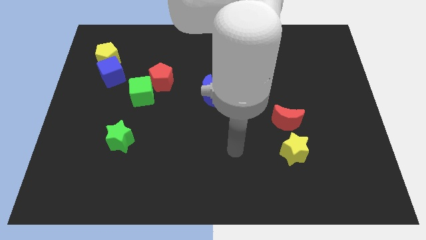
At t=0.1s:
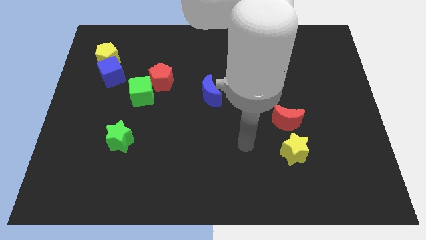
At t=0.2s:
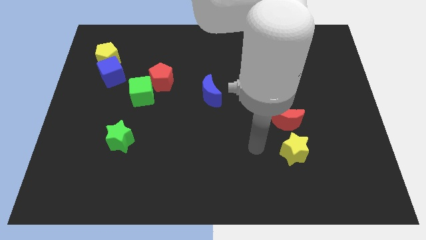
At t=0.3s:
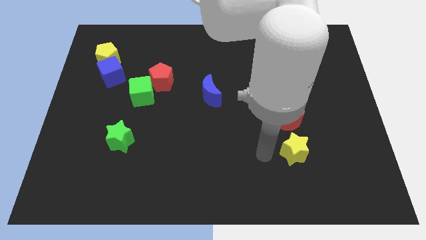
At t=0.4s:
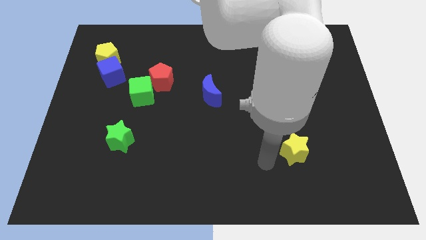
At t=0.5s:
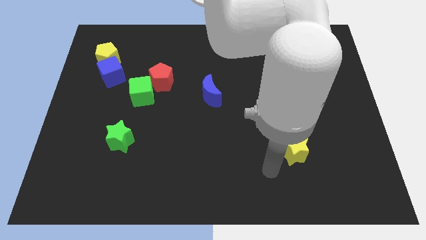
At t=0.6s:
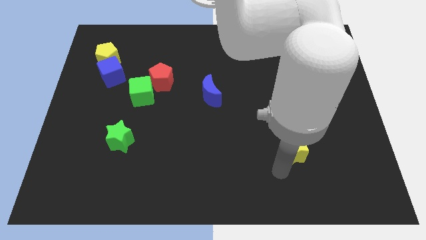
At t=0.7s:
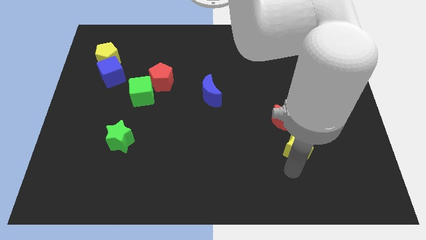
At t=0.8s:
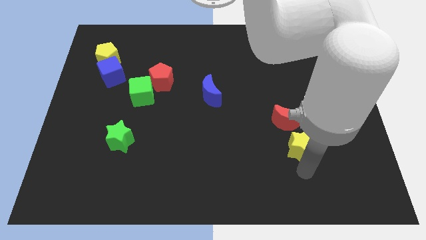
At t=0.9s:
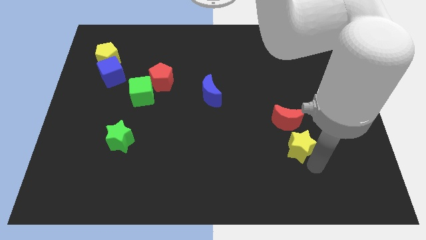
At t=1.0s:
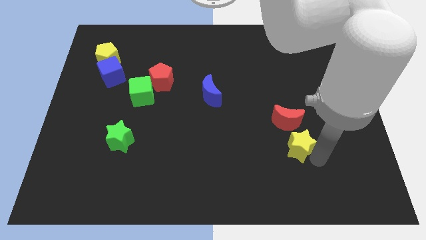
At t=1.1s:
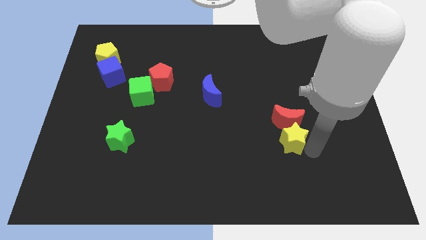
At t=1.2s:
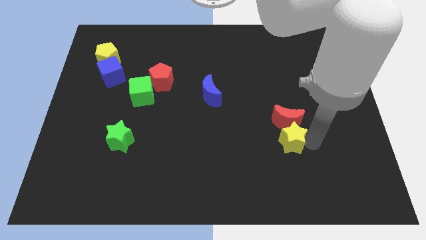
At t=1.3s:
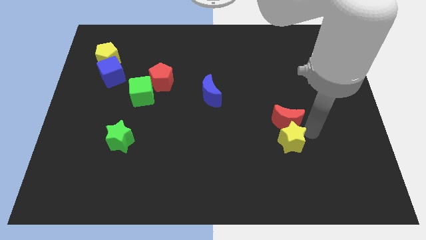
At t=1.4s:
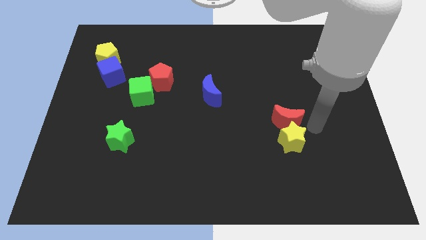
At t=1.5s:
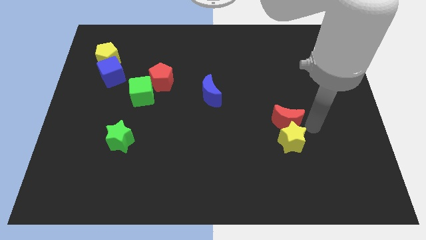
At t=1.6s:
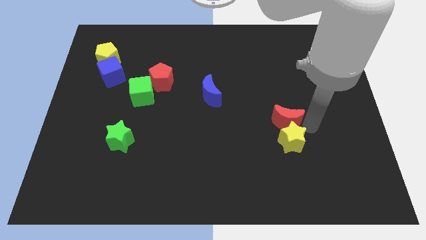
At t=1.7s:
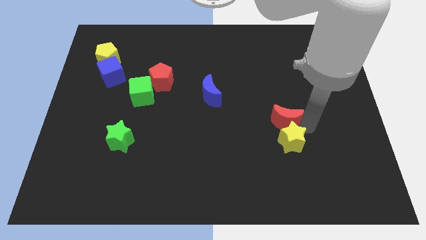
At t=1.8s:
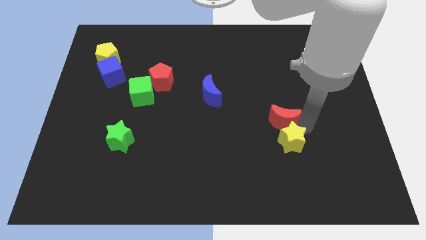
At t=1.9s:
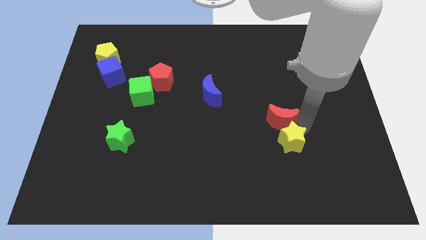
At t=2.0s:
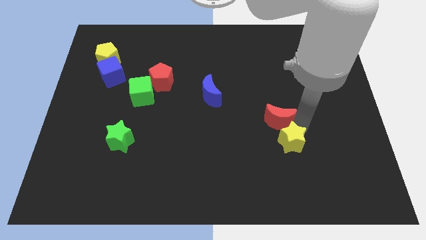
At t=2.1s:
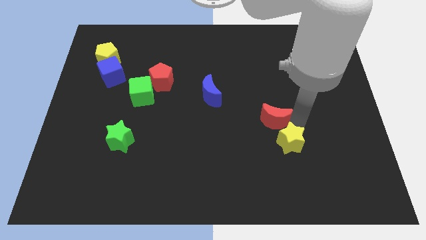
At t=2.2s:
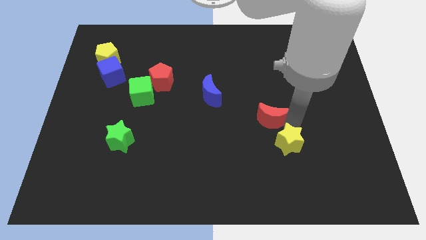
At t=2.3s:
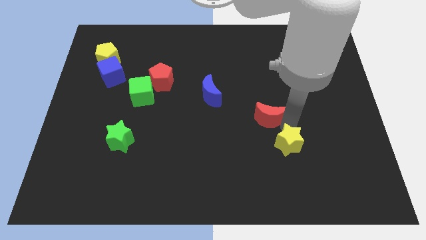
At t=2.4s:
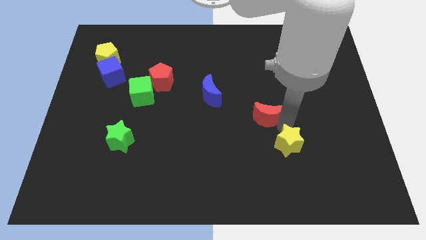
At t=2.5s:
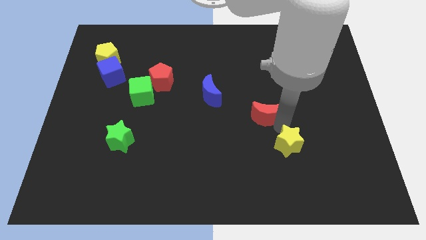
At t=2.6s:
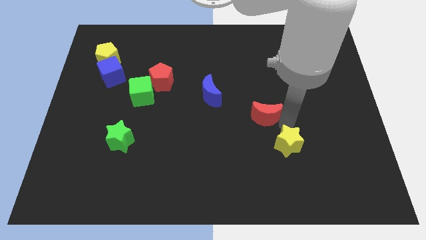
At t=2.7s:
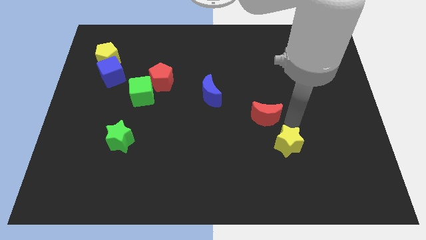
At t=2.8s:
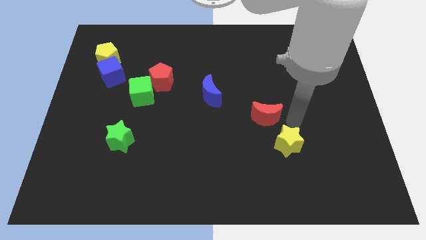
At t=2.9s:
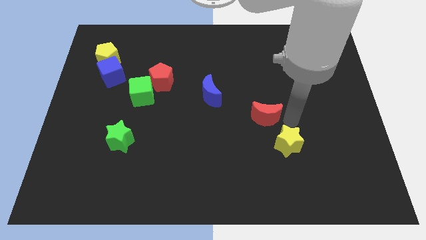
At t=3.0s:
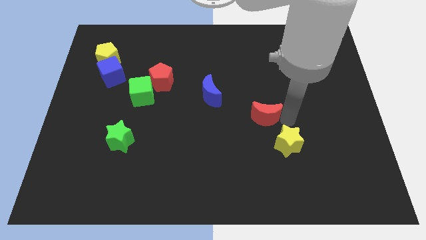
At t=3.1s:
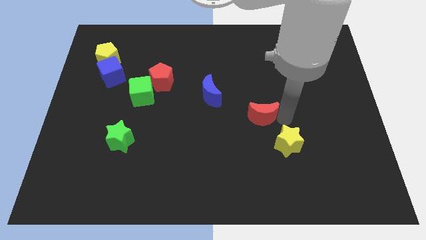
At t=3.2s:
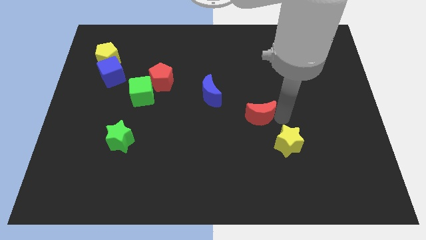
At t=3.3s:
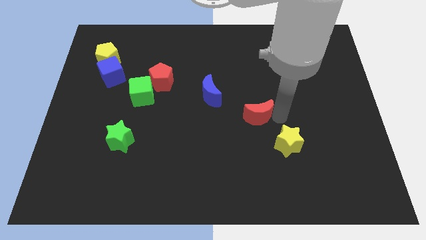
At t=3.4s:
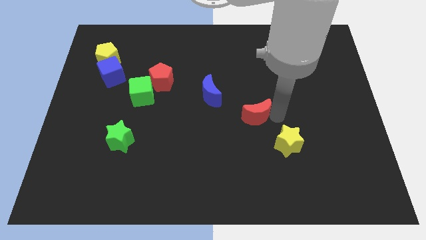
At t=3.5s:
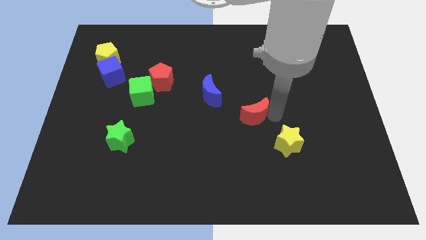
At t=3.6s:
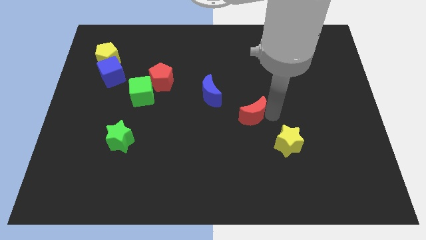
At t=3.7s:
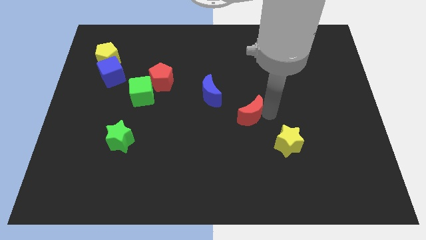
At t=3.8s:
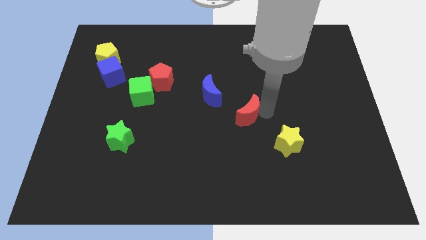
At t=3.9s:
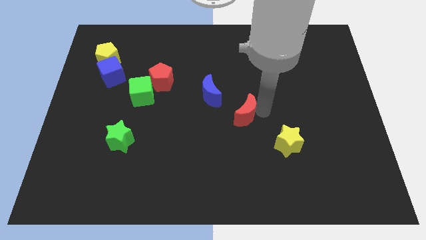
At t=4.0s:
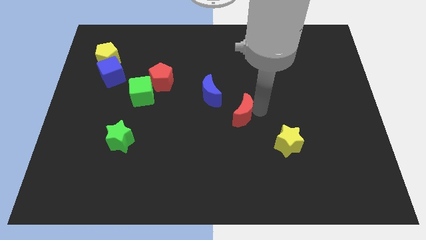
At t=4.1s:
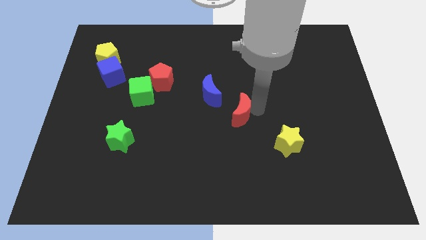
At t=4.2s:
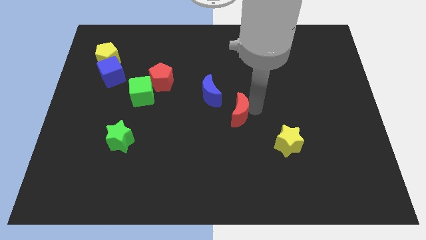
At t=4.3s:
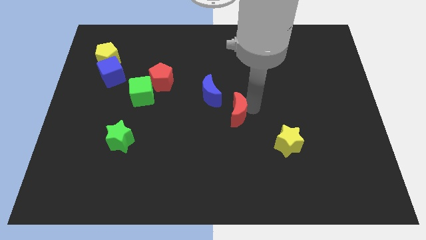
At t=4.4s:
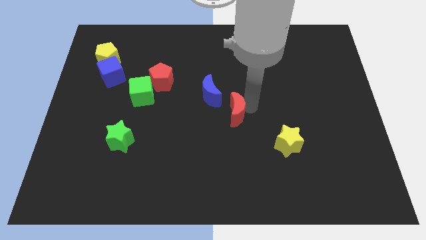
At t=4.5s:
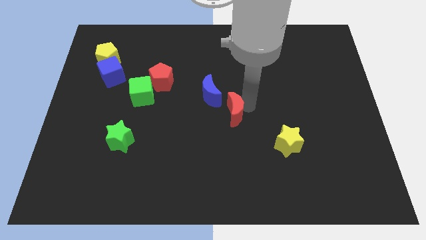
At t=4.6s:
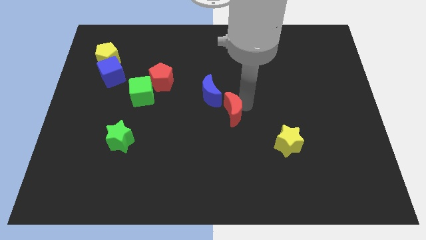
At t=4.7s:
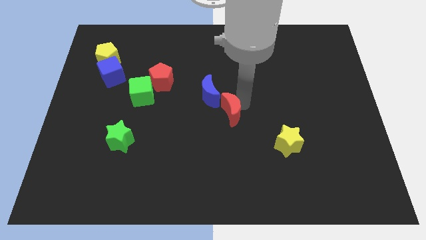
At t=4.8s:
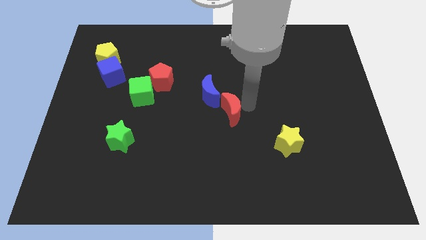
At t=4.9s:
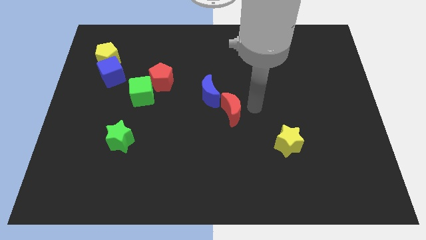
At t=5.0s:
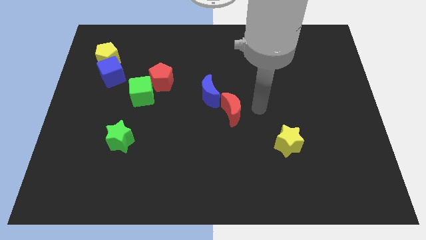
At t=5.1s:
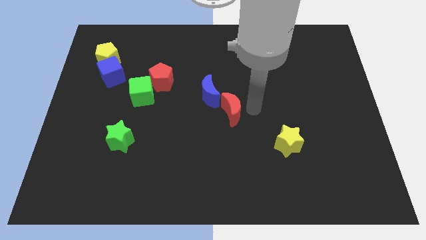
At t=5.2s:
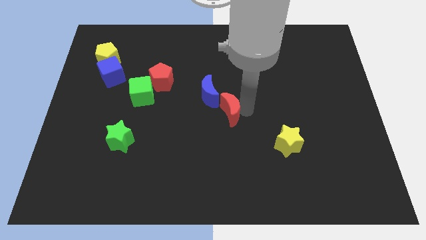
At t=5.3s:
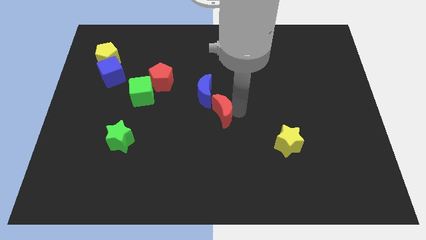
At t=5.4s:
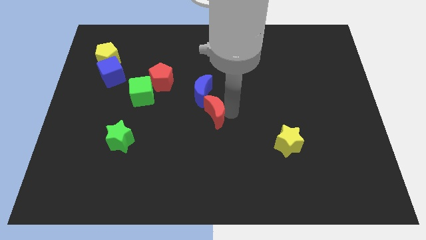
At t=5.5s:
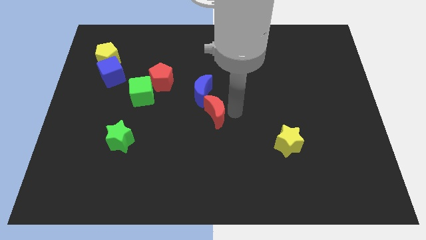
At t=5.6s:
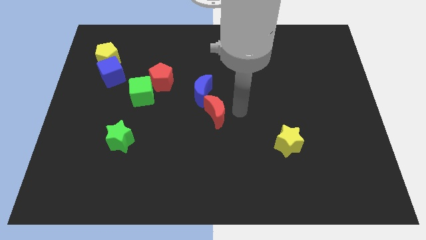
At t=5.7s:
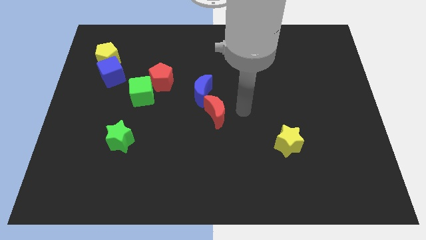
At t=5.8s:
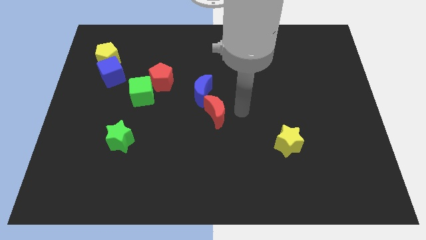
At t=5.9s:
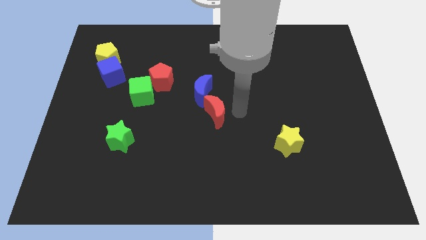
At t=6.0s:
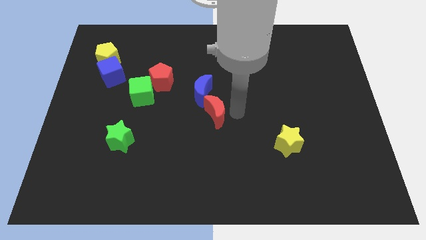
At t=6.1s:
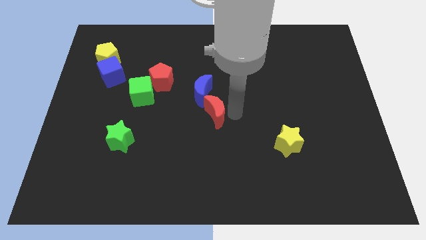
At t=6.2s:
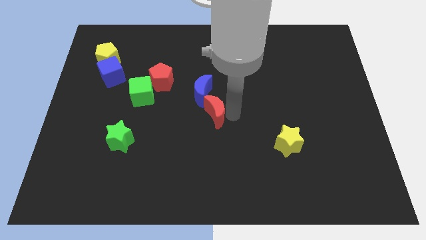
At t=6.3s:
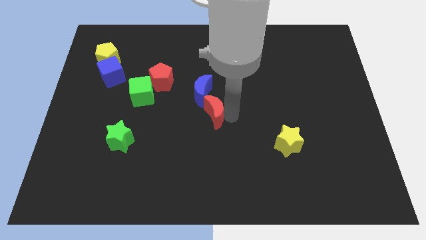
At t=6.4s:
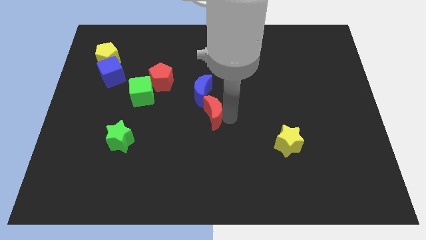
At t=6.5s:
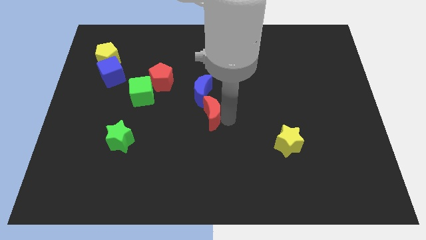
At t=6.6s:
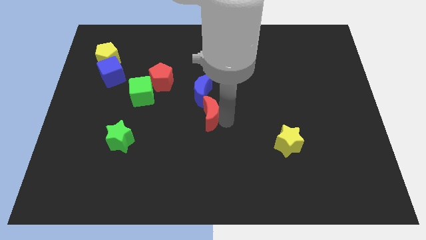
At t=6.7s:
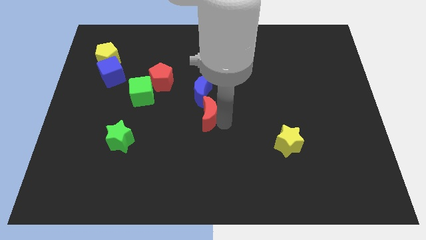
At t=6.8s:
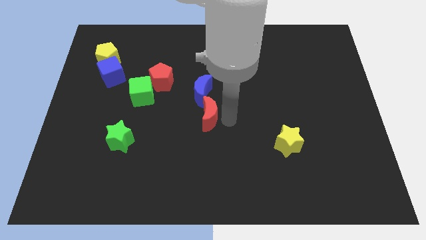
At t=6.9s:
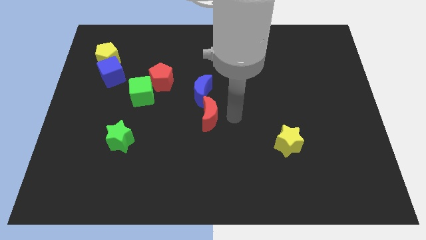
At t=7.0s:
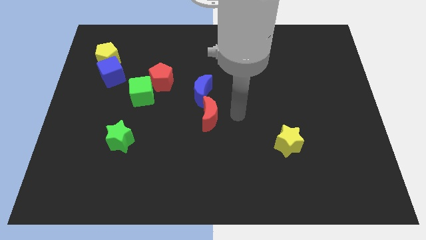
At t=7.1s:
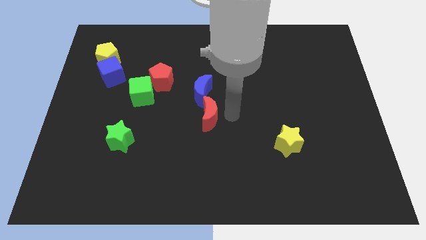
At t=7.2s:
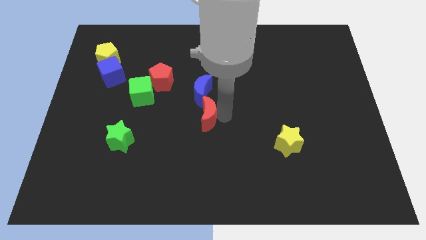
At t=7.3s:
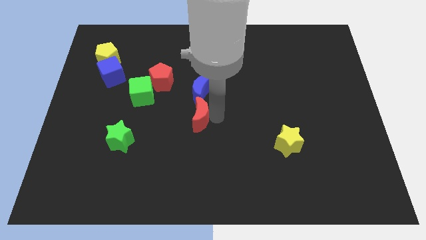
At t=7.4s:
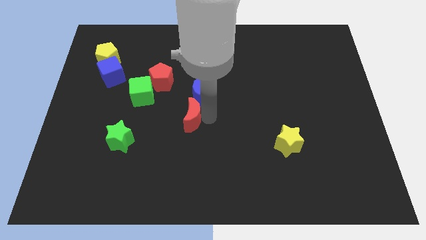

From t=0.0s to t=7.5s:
push the red moon to the left

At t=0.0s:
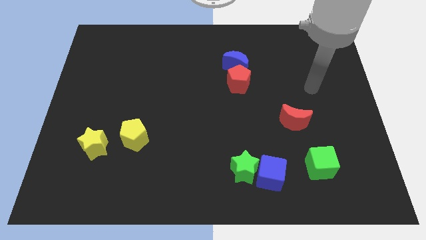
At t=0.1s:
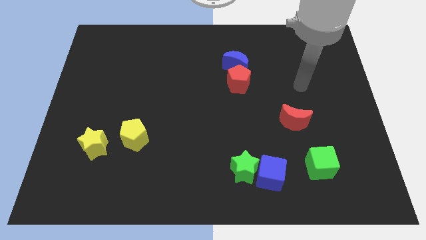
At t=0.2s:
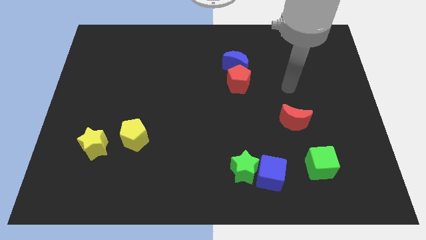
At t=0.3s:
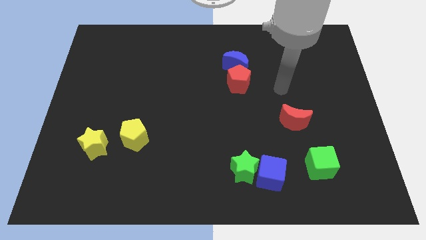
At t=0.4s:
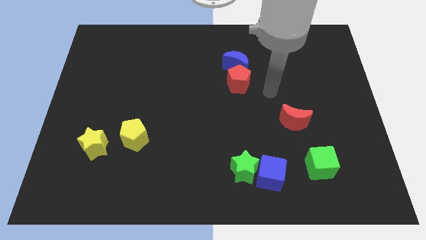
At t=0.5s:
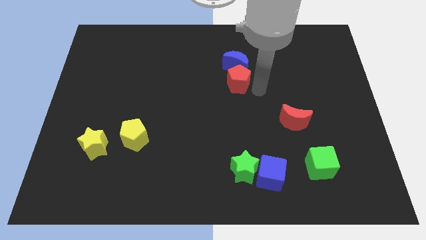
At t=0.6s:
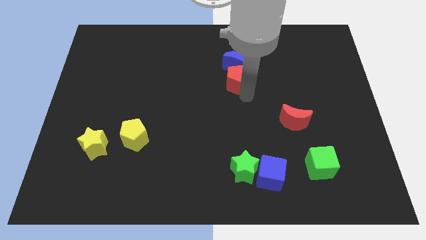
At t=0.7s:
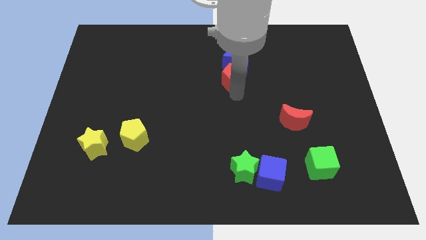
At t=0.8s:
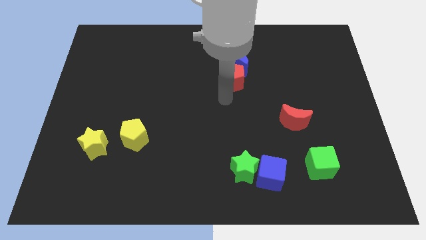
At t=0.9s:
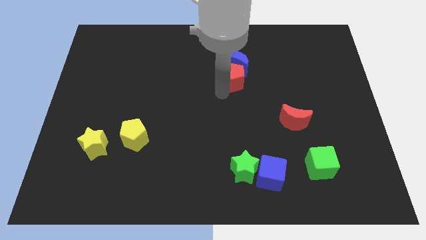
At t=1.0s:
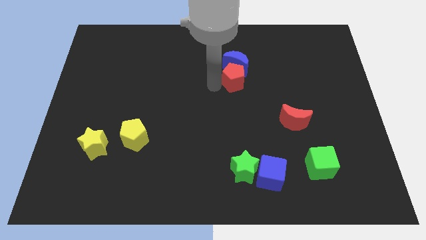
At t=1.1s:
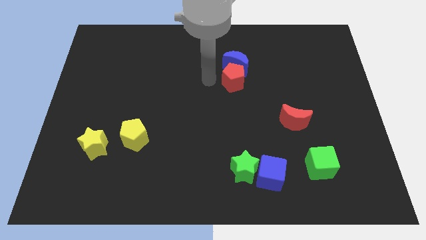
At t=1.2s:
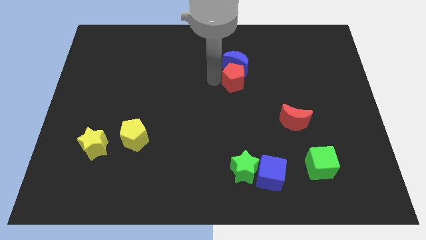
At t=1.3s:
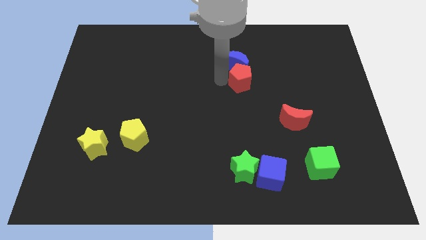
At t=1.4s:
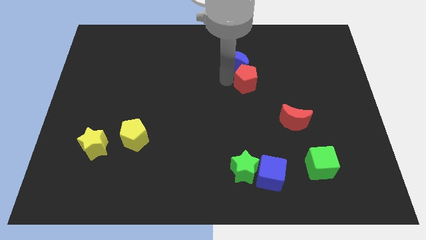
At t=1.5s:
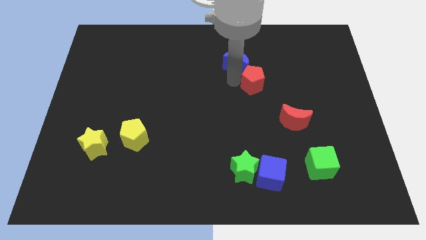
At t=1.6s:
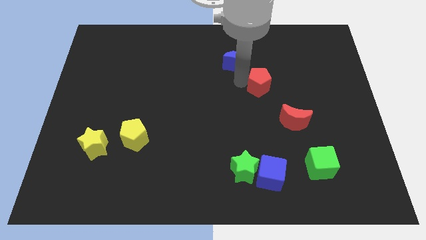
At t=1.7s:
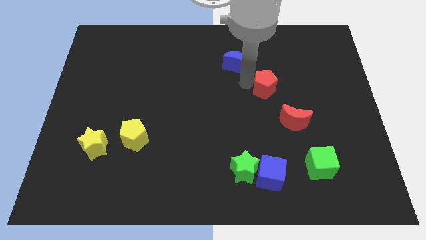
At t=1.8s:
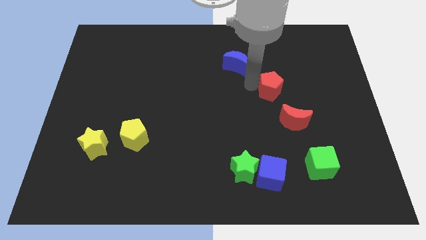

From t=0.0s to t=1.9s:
slightly move the red pentagon to the right
